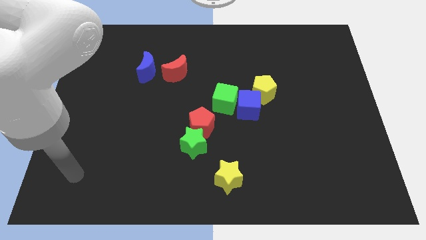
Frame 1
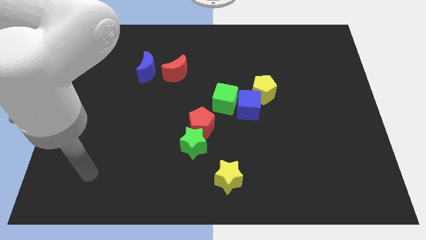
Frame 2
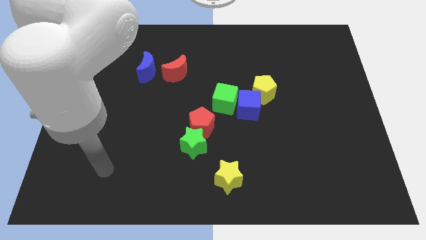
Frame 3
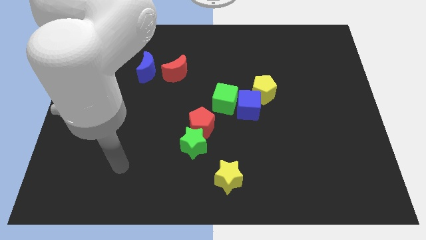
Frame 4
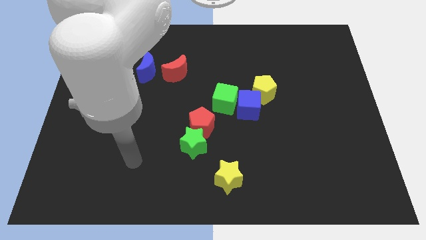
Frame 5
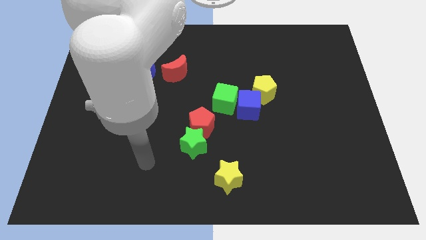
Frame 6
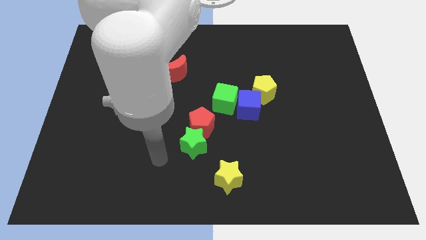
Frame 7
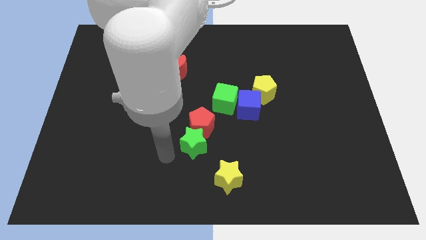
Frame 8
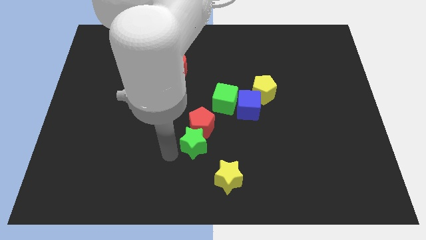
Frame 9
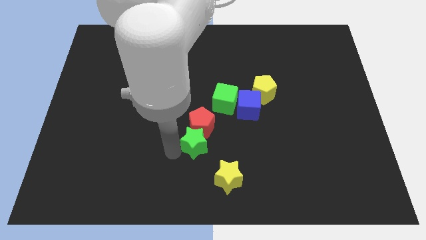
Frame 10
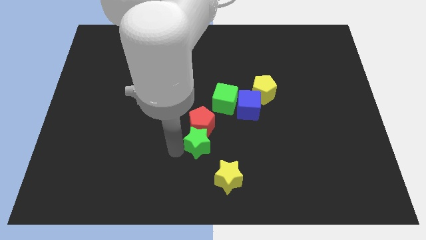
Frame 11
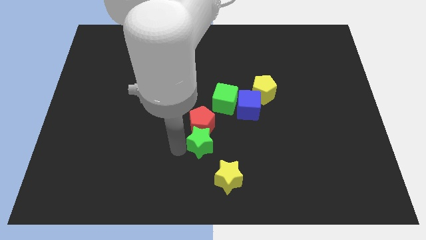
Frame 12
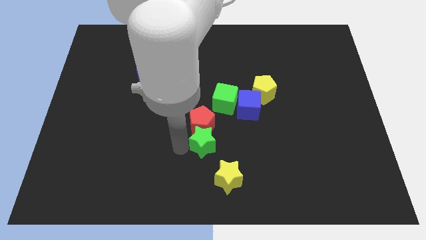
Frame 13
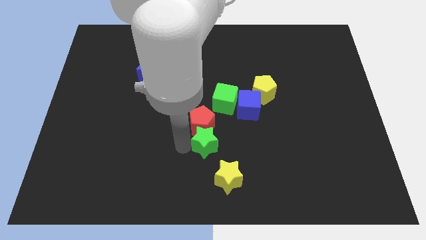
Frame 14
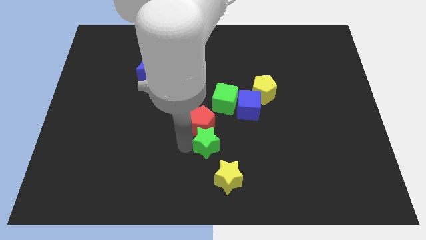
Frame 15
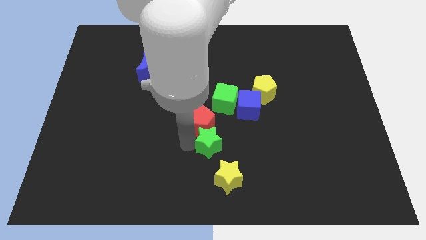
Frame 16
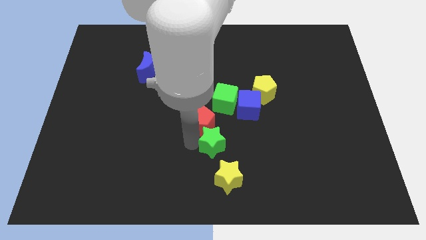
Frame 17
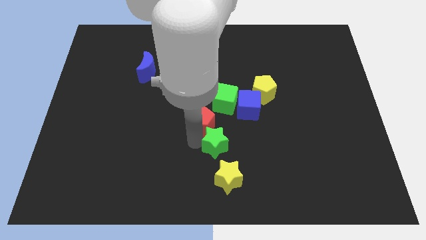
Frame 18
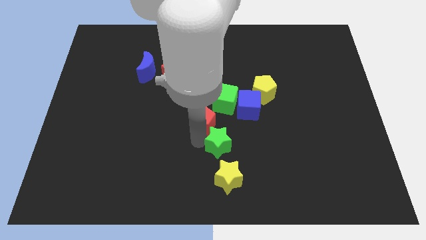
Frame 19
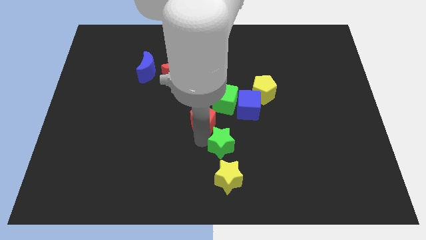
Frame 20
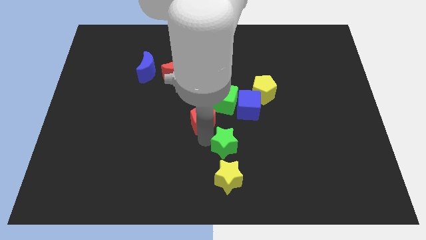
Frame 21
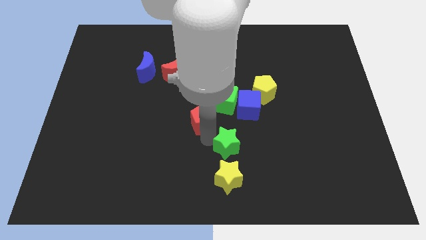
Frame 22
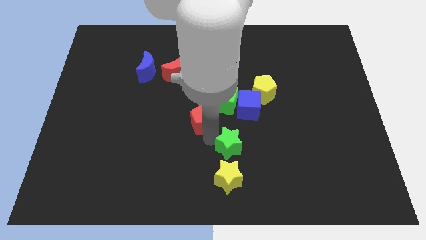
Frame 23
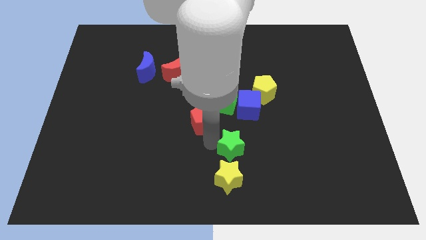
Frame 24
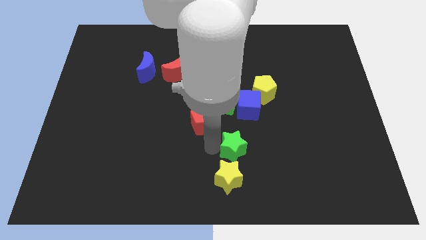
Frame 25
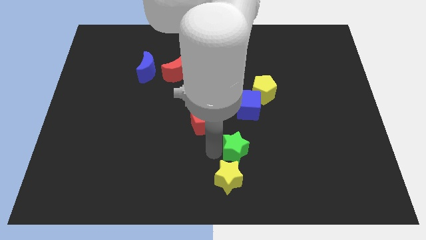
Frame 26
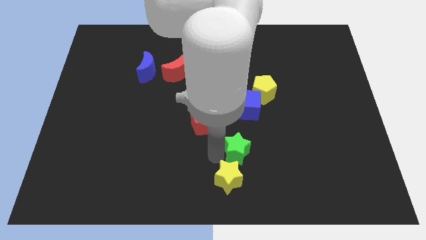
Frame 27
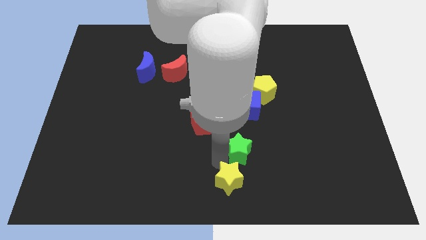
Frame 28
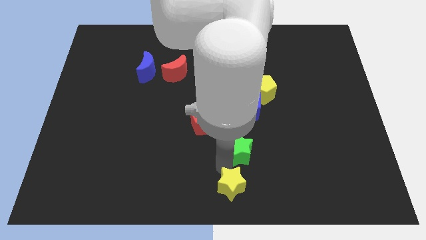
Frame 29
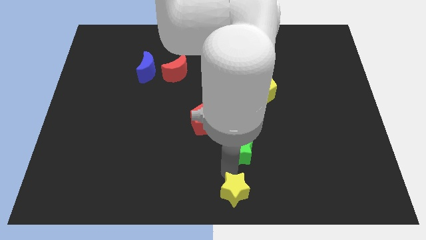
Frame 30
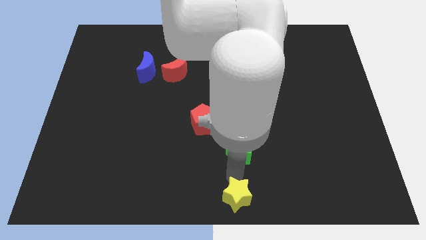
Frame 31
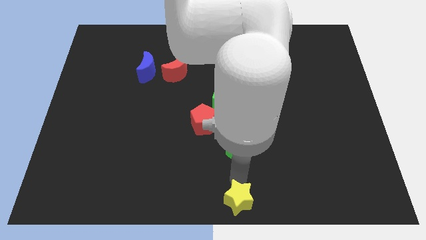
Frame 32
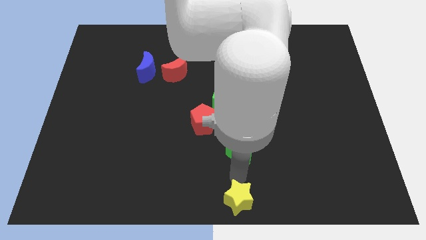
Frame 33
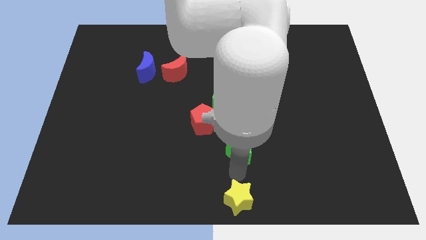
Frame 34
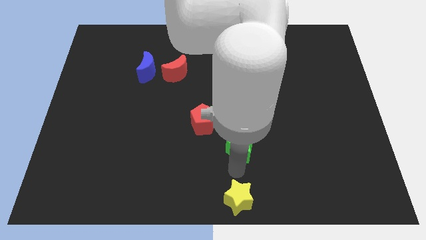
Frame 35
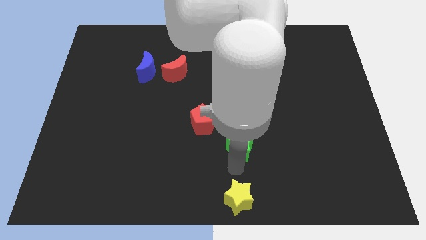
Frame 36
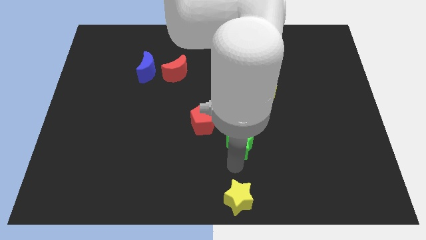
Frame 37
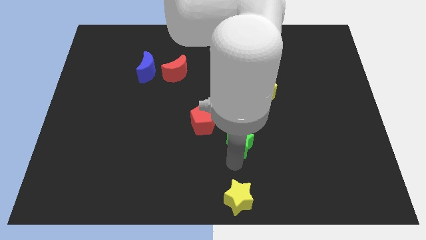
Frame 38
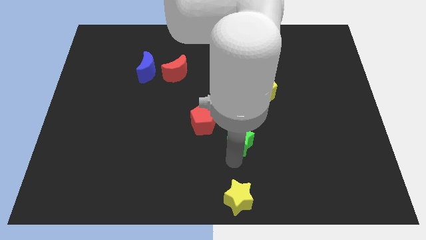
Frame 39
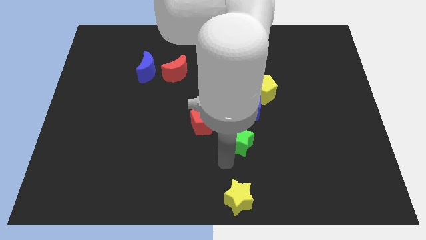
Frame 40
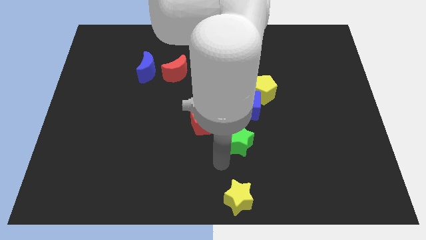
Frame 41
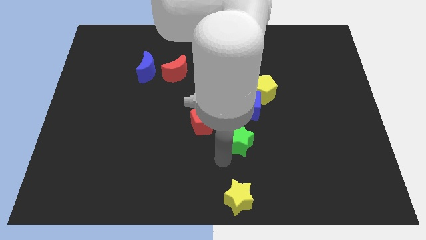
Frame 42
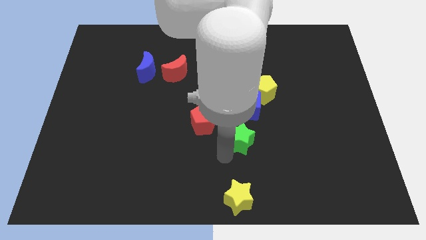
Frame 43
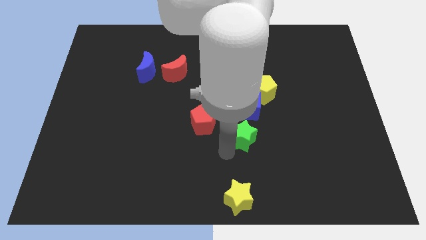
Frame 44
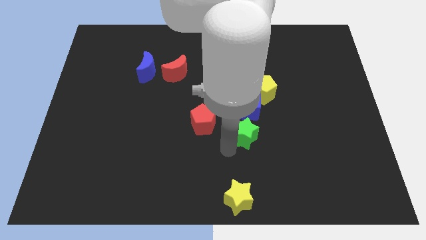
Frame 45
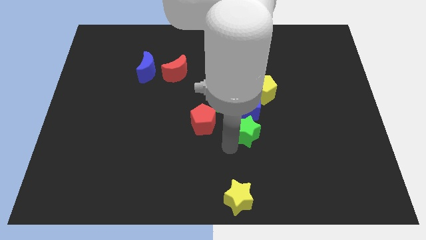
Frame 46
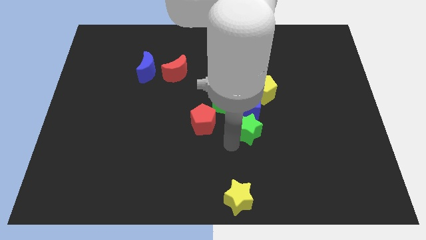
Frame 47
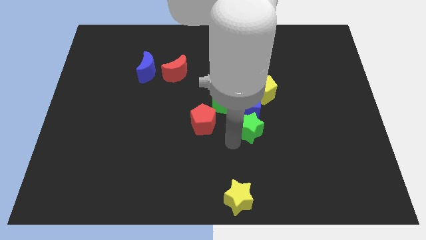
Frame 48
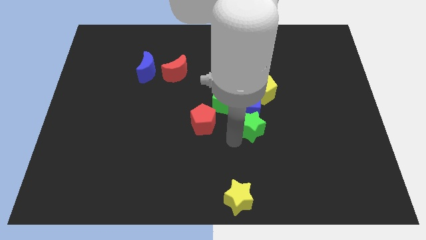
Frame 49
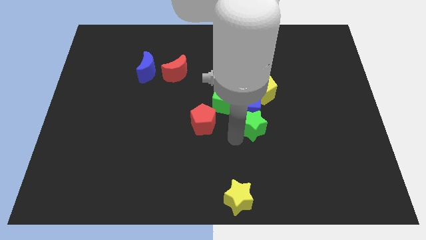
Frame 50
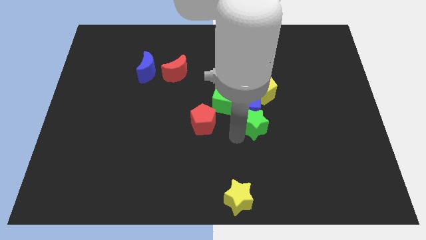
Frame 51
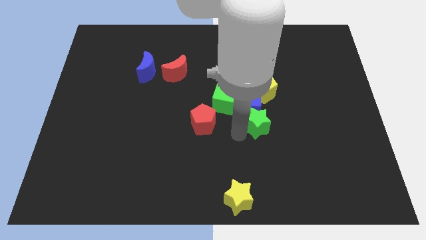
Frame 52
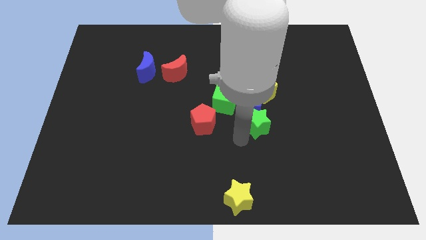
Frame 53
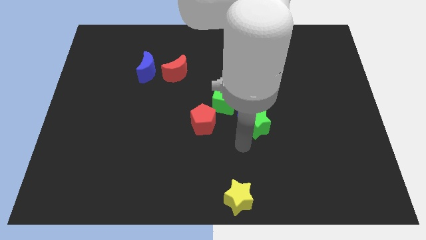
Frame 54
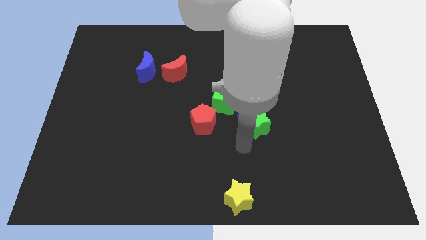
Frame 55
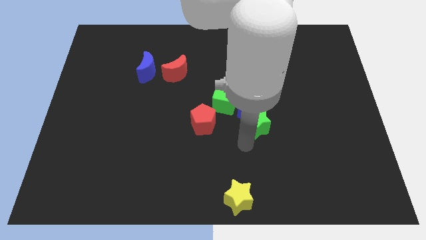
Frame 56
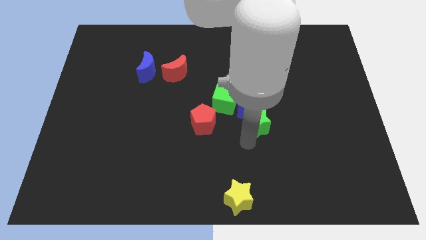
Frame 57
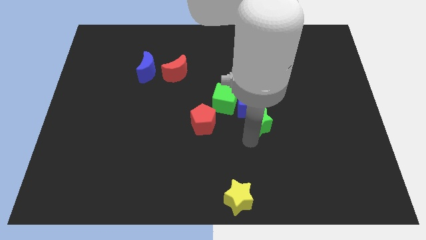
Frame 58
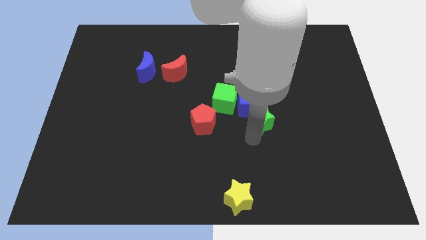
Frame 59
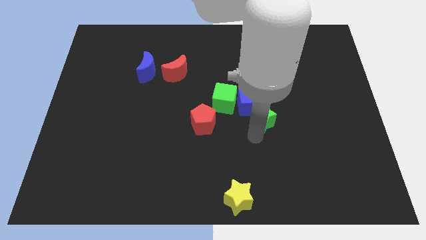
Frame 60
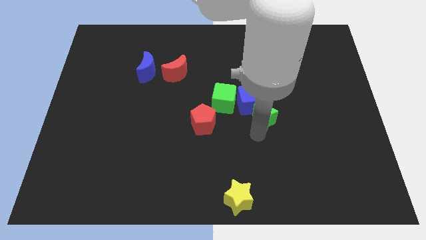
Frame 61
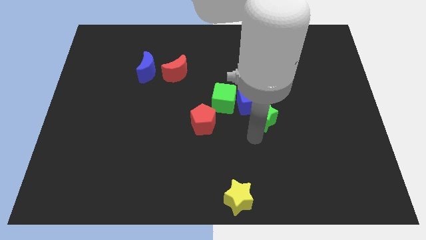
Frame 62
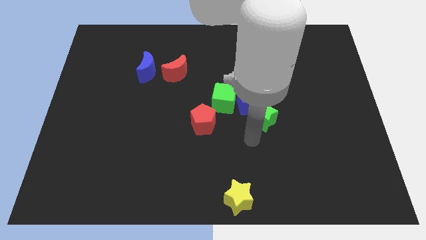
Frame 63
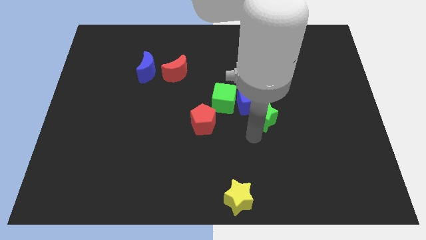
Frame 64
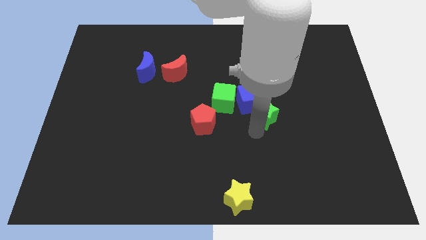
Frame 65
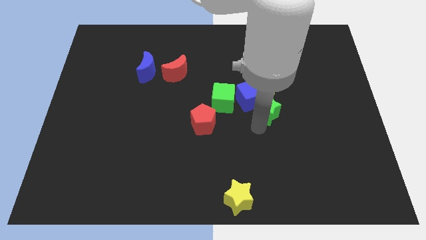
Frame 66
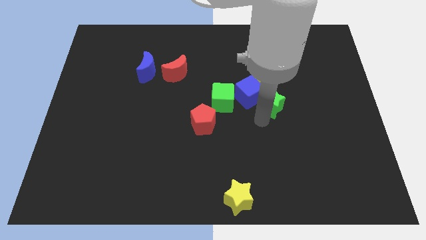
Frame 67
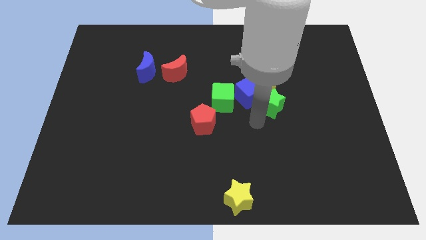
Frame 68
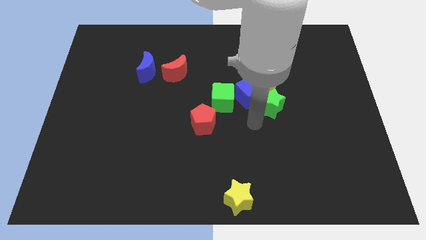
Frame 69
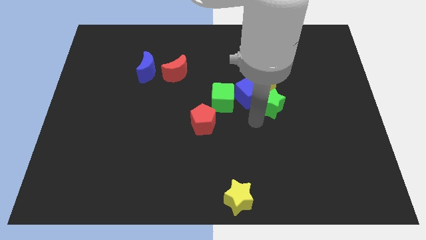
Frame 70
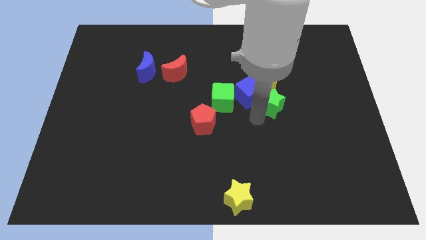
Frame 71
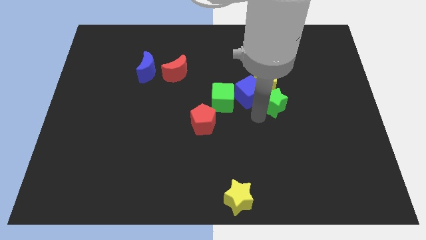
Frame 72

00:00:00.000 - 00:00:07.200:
push the green star up and to the right diagonally

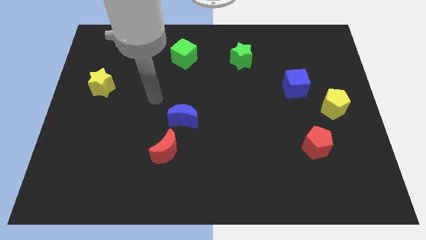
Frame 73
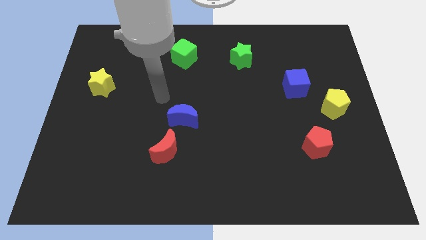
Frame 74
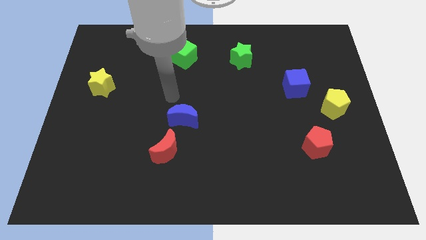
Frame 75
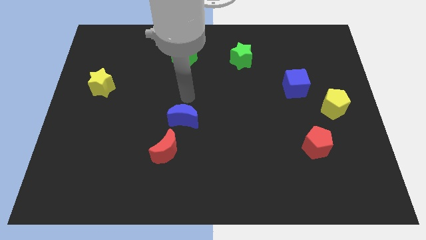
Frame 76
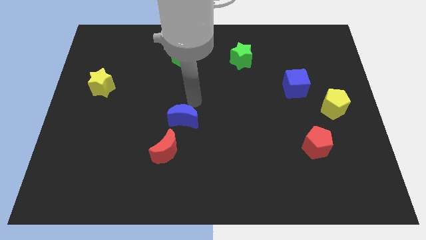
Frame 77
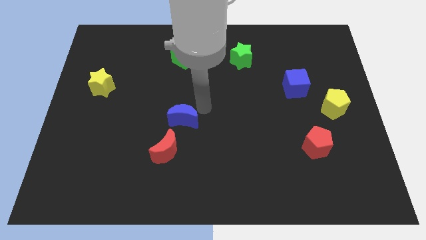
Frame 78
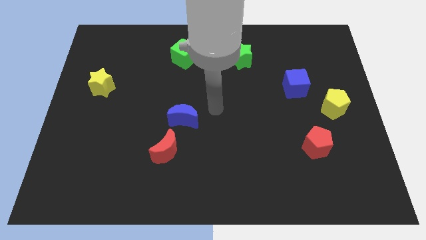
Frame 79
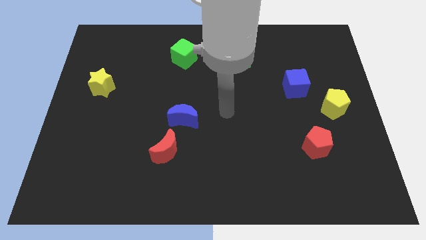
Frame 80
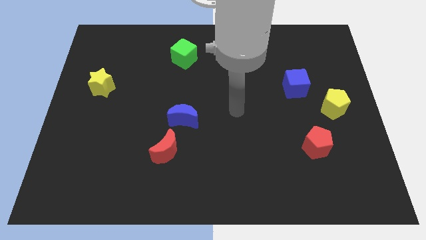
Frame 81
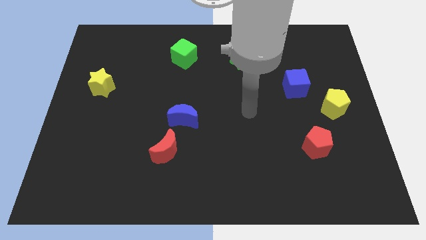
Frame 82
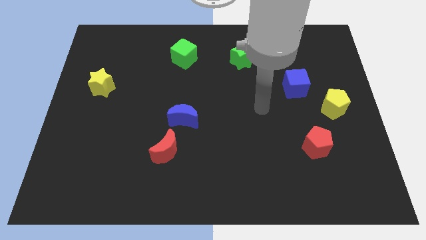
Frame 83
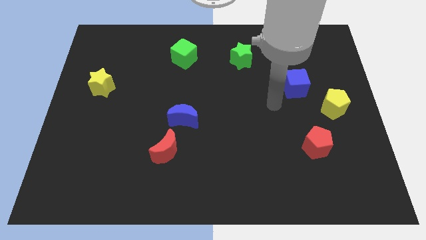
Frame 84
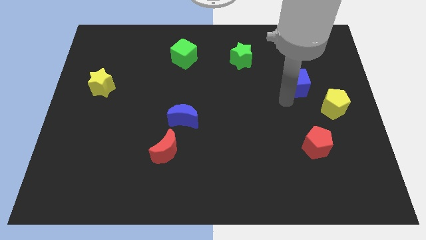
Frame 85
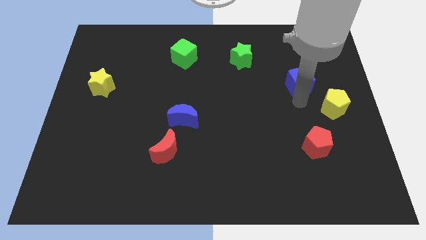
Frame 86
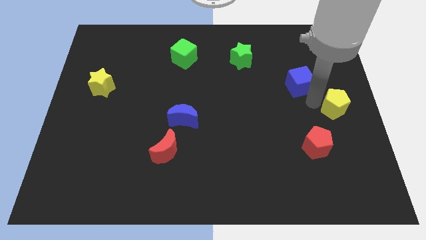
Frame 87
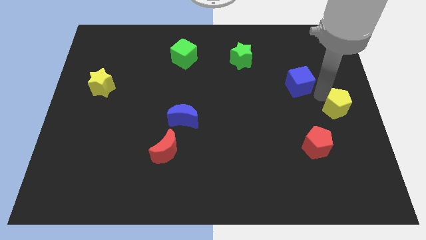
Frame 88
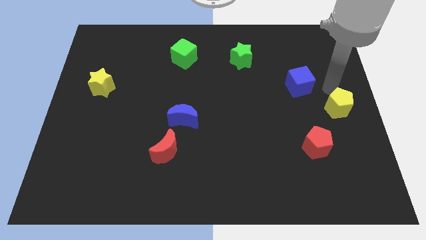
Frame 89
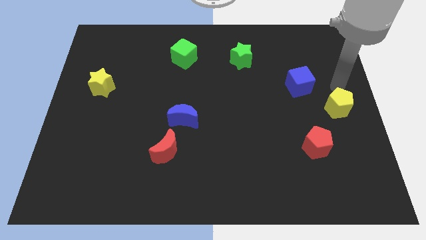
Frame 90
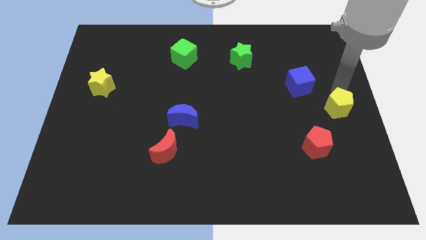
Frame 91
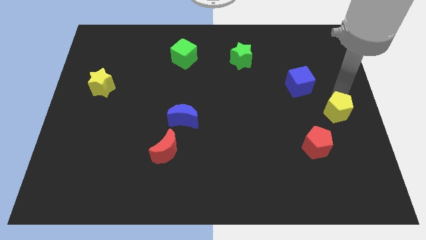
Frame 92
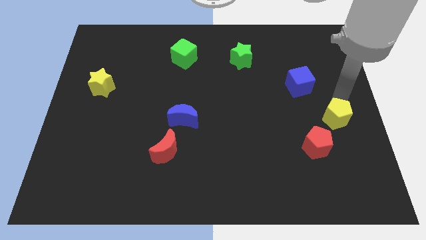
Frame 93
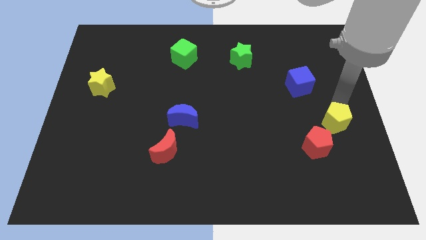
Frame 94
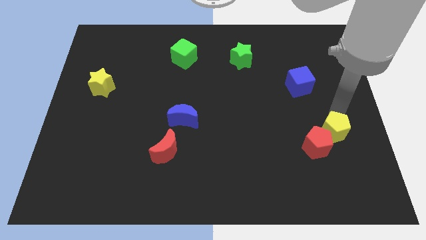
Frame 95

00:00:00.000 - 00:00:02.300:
move the yellow pentagon downwards slightly
